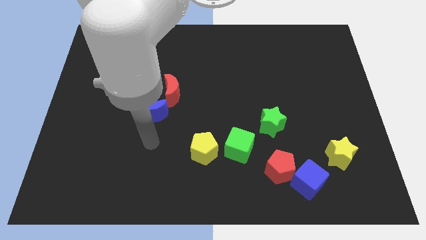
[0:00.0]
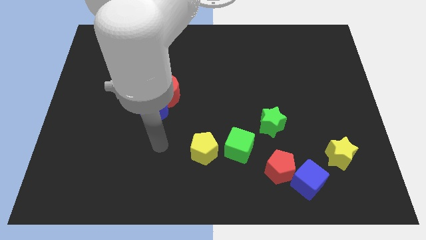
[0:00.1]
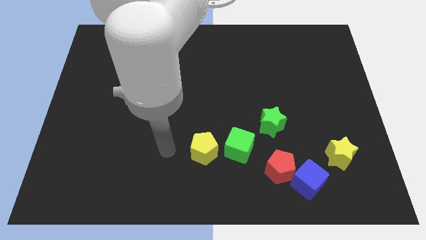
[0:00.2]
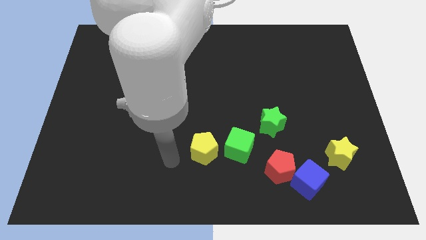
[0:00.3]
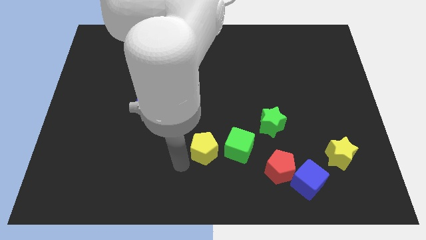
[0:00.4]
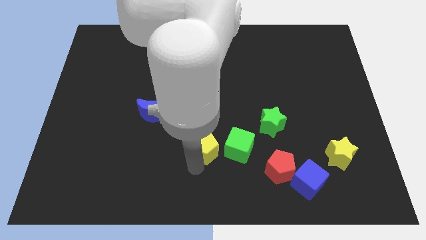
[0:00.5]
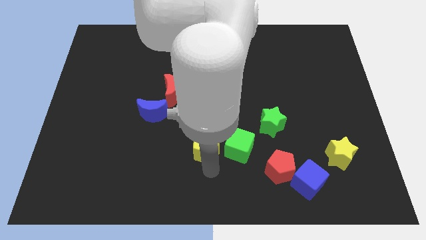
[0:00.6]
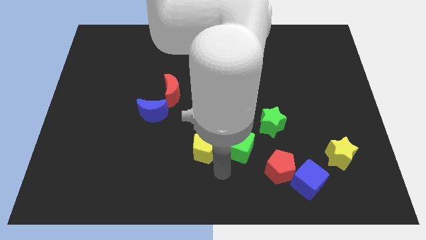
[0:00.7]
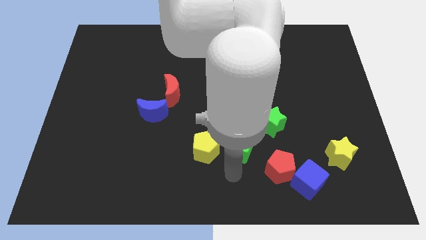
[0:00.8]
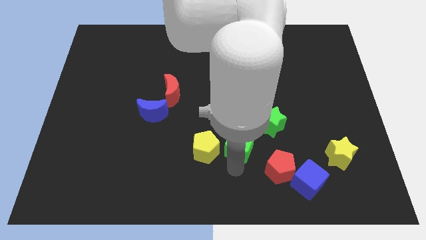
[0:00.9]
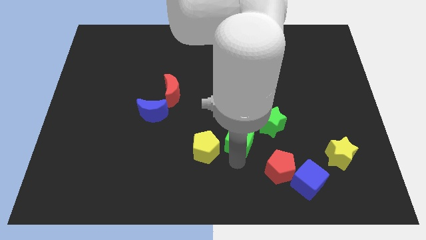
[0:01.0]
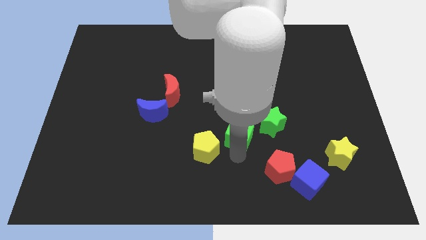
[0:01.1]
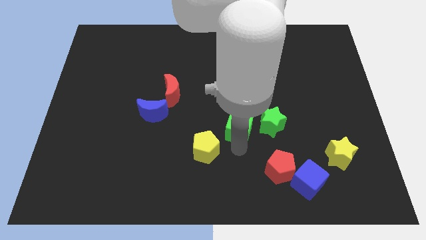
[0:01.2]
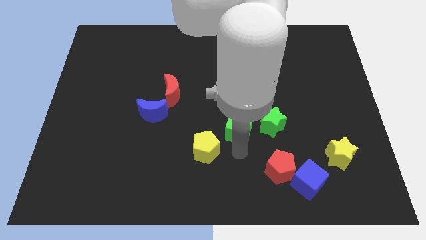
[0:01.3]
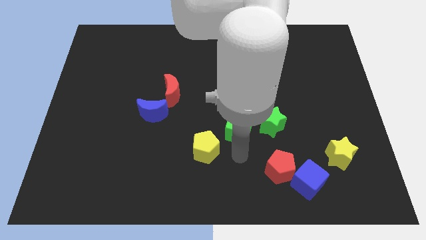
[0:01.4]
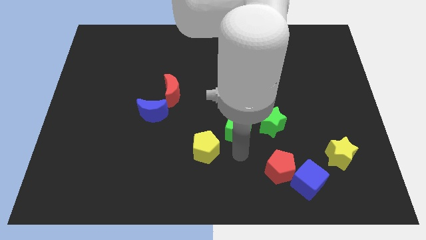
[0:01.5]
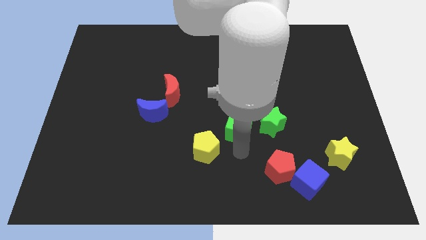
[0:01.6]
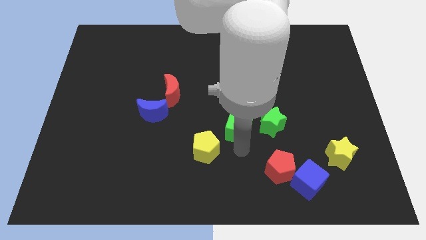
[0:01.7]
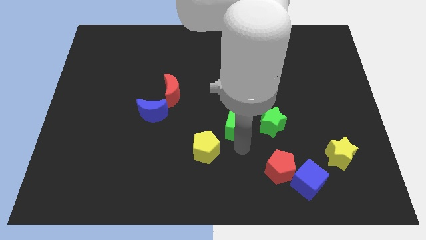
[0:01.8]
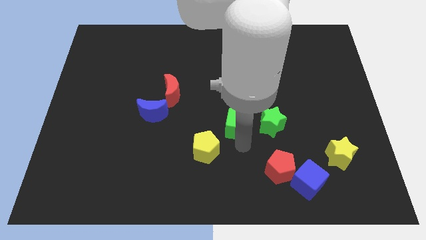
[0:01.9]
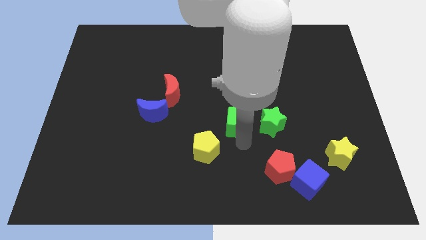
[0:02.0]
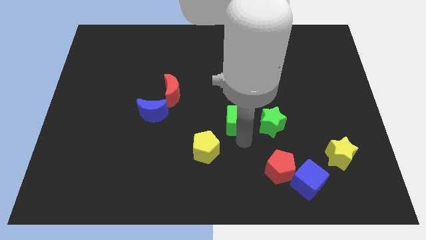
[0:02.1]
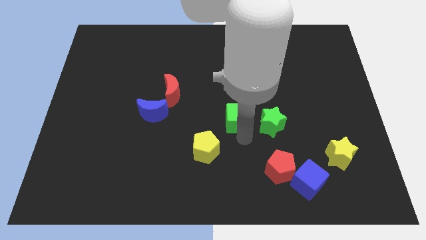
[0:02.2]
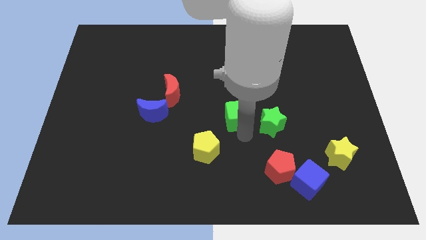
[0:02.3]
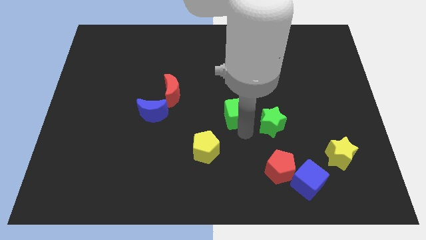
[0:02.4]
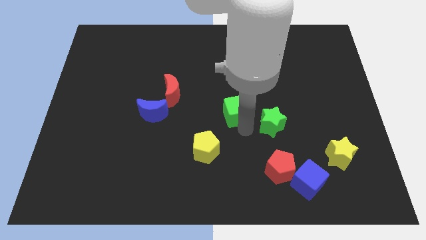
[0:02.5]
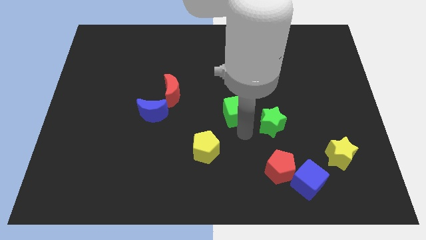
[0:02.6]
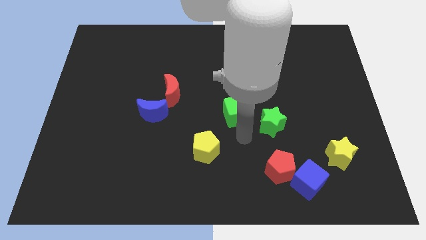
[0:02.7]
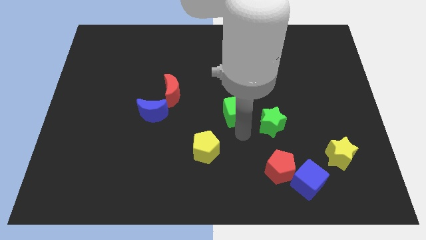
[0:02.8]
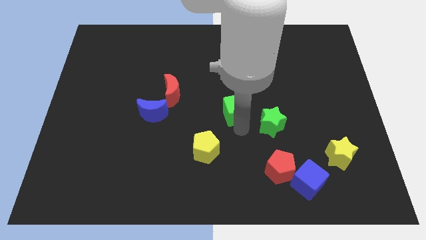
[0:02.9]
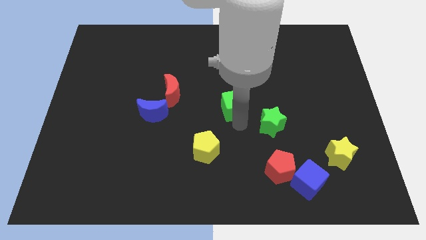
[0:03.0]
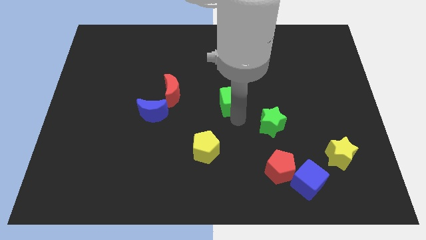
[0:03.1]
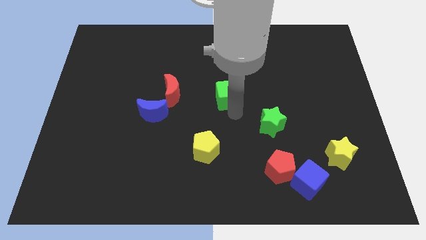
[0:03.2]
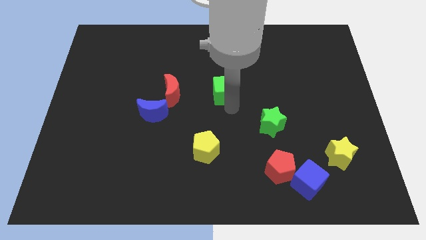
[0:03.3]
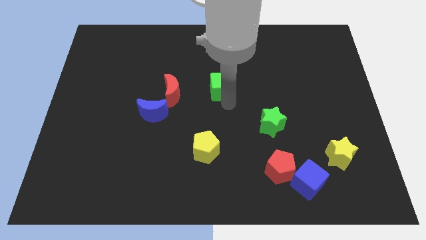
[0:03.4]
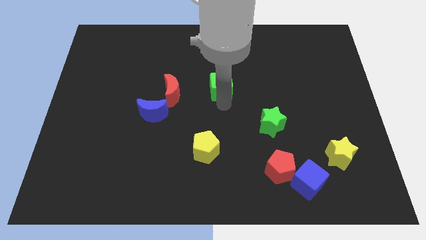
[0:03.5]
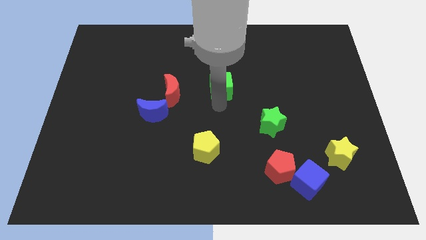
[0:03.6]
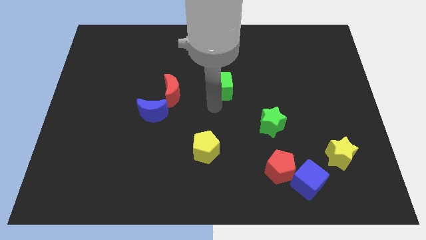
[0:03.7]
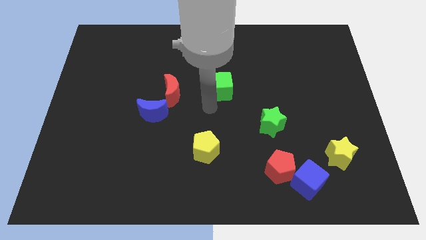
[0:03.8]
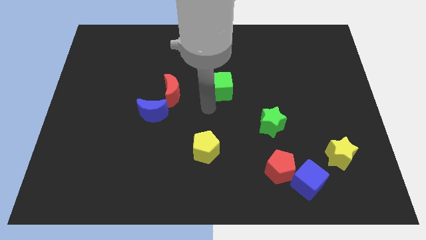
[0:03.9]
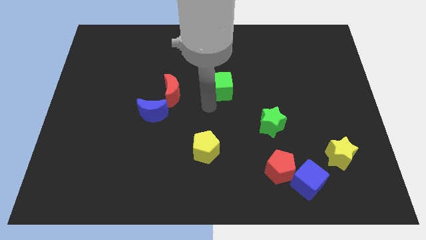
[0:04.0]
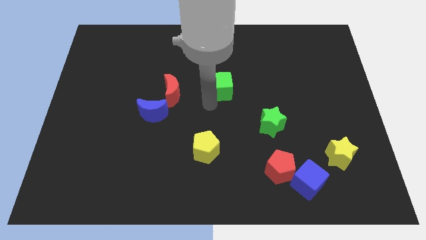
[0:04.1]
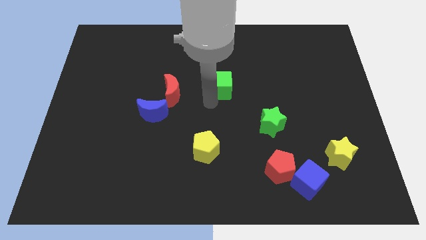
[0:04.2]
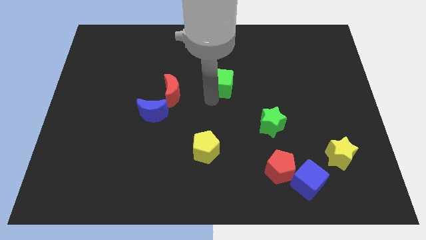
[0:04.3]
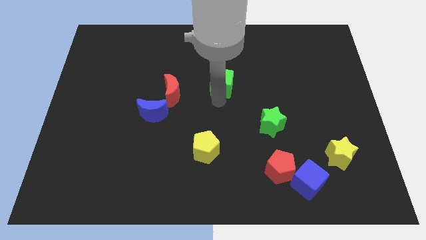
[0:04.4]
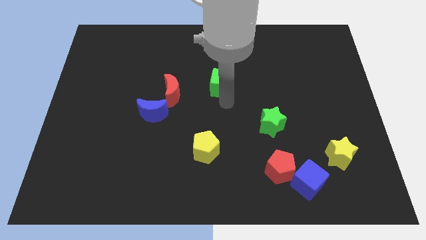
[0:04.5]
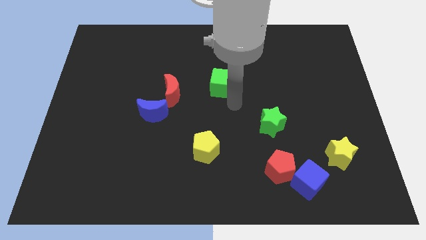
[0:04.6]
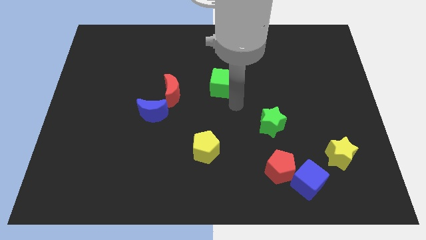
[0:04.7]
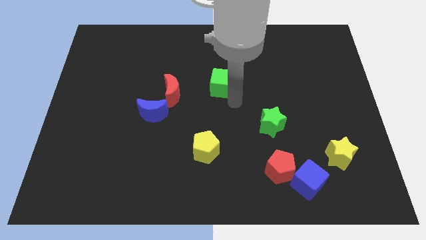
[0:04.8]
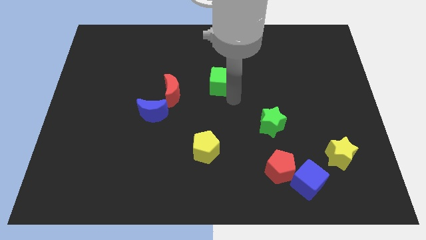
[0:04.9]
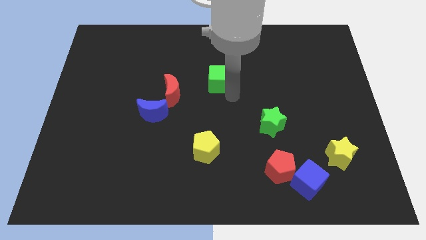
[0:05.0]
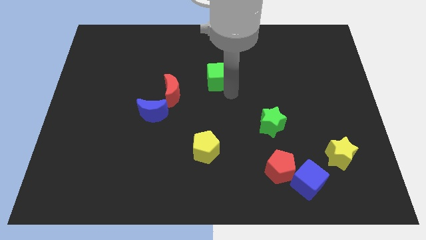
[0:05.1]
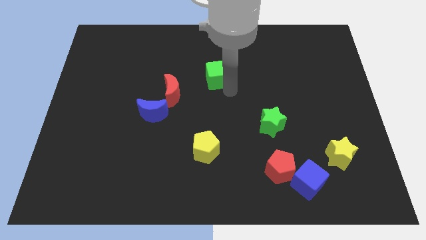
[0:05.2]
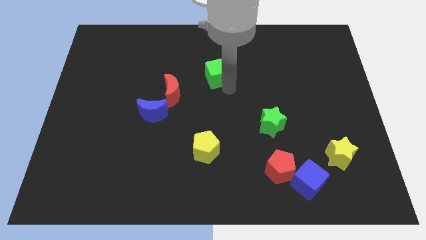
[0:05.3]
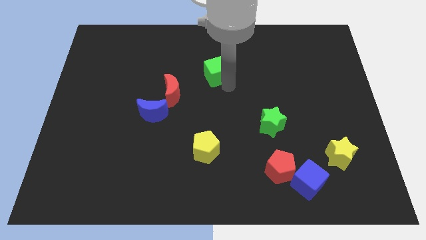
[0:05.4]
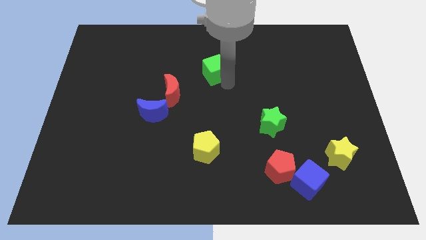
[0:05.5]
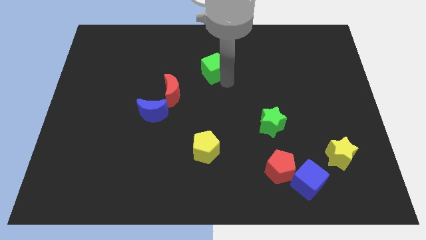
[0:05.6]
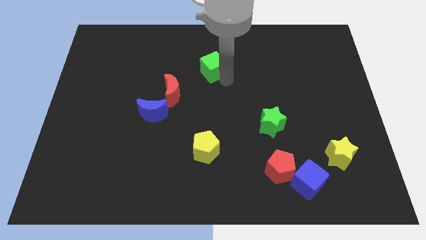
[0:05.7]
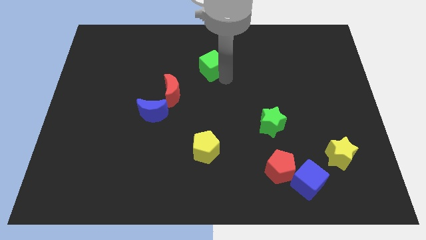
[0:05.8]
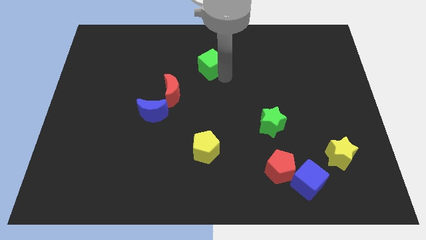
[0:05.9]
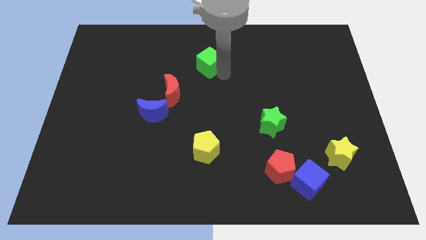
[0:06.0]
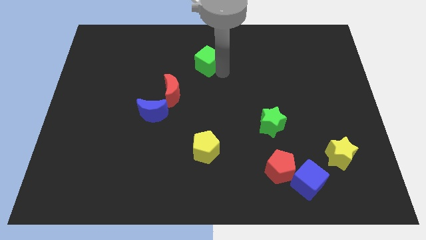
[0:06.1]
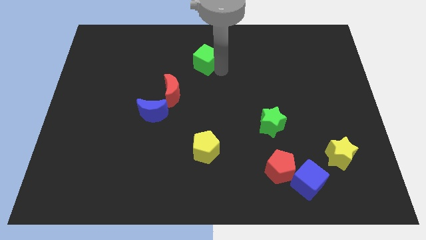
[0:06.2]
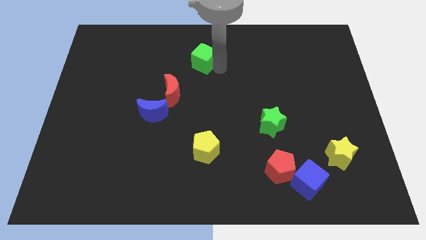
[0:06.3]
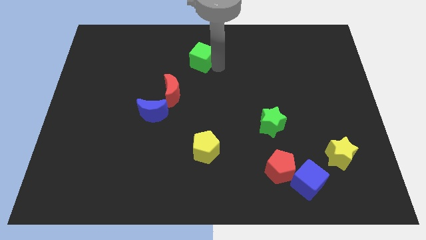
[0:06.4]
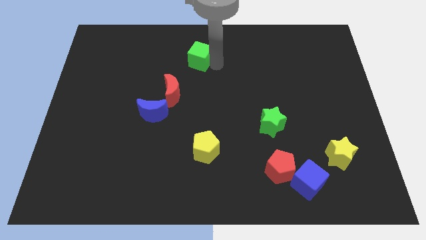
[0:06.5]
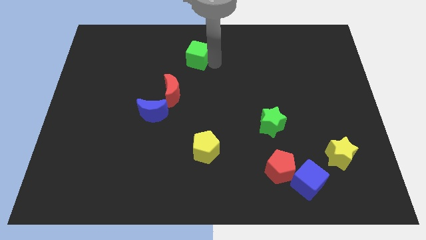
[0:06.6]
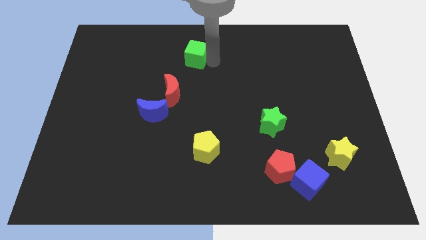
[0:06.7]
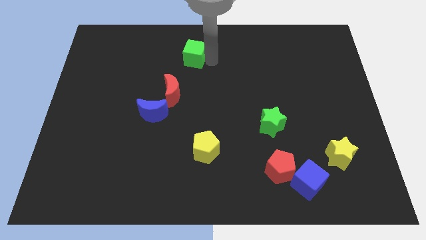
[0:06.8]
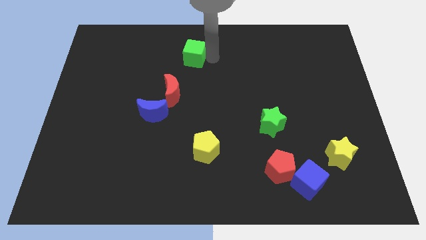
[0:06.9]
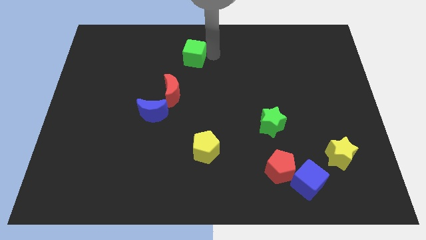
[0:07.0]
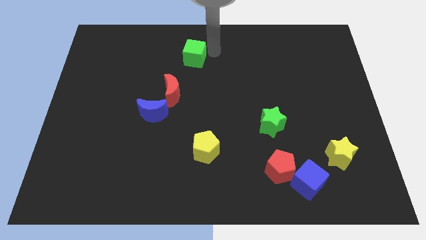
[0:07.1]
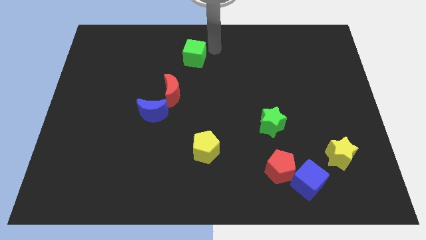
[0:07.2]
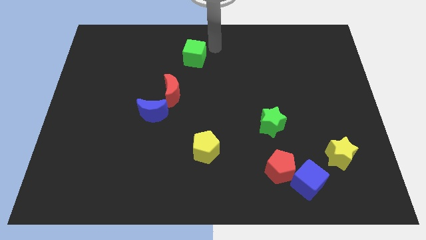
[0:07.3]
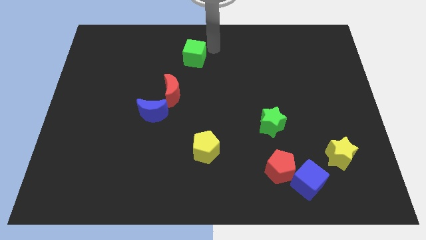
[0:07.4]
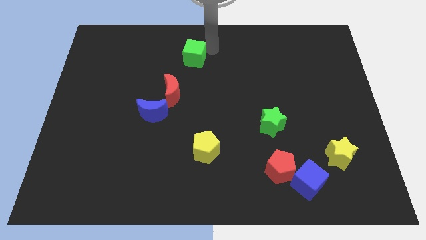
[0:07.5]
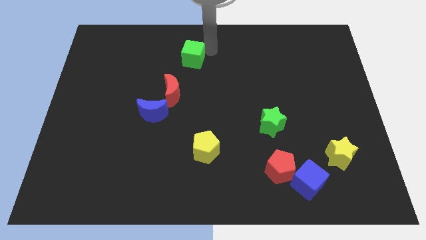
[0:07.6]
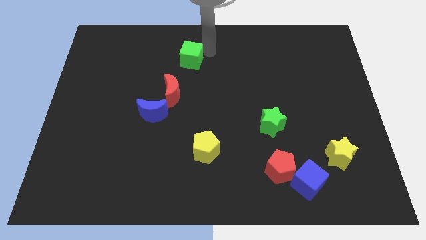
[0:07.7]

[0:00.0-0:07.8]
move the green cube up and left diagonally
